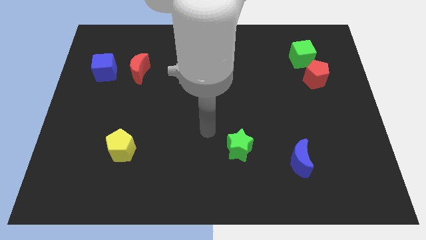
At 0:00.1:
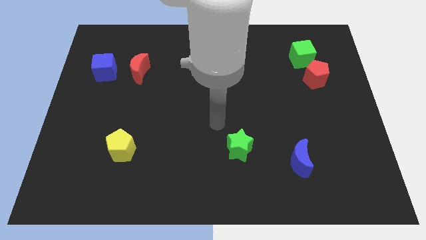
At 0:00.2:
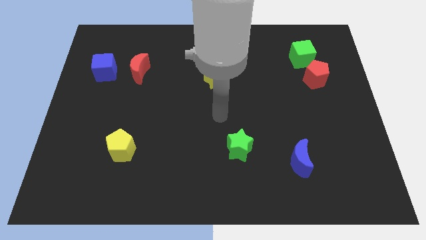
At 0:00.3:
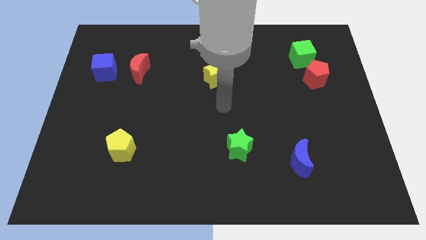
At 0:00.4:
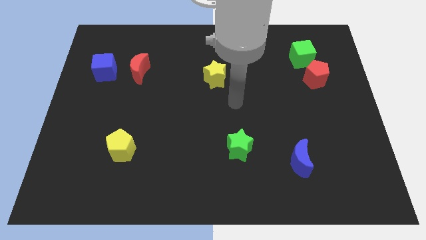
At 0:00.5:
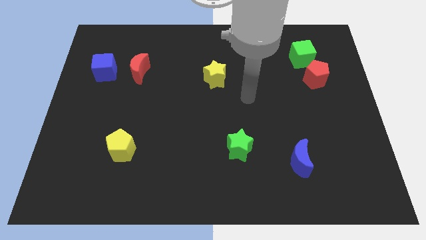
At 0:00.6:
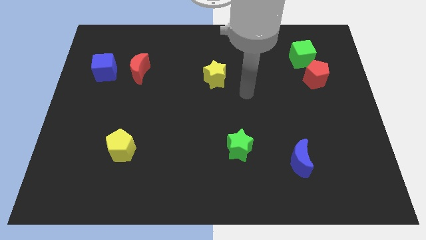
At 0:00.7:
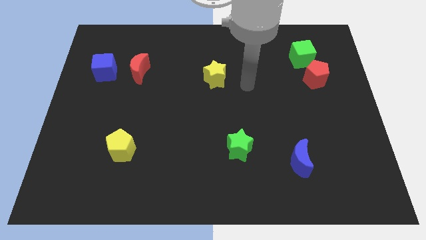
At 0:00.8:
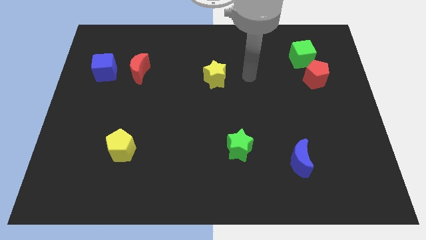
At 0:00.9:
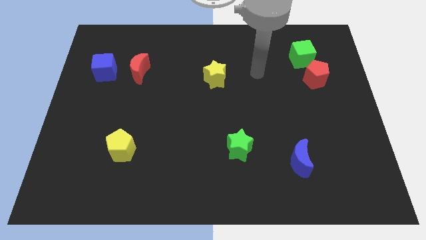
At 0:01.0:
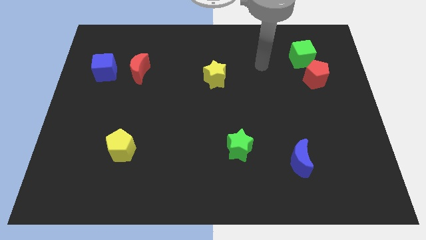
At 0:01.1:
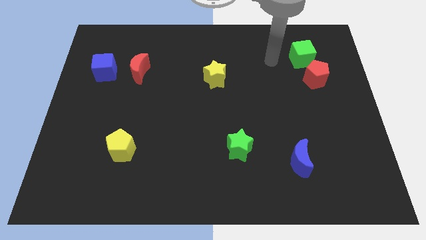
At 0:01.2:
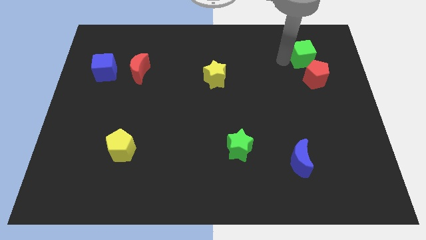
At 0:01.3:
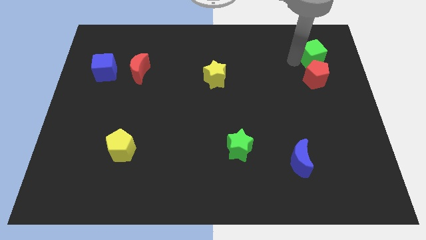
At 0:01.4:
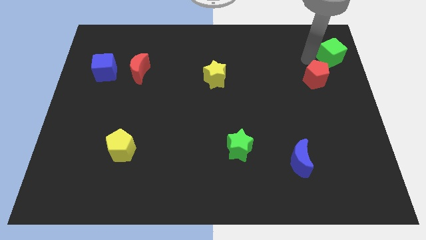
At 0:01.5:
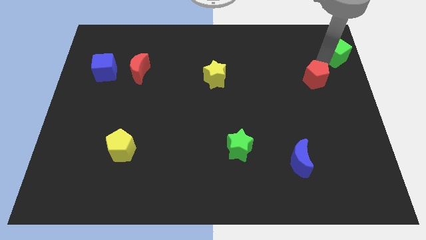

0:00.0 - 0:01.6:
pull the red pentagon apart from the green cube

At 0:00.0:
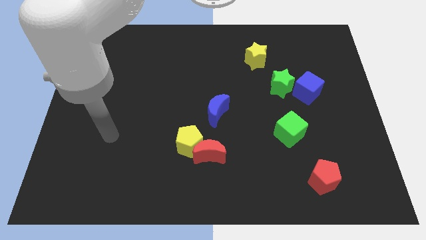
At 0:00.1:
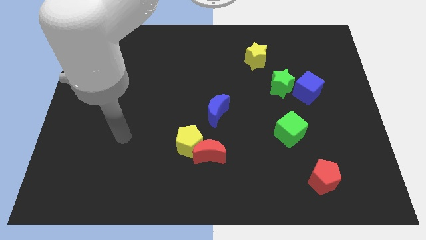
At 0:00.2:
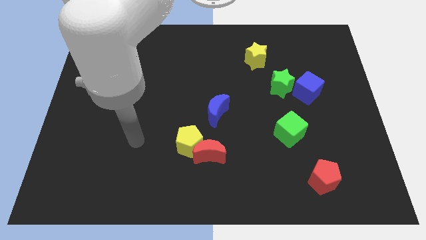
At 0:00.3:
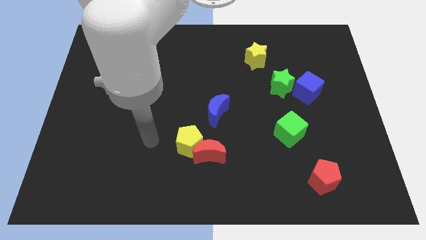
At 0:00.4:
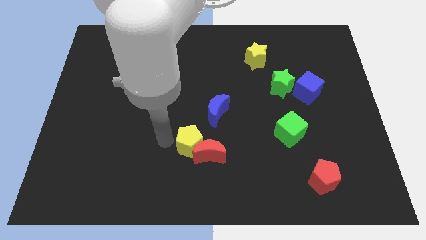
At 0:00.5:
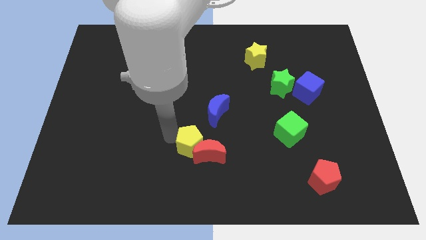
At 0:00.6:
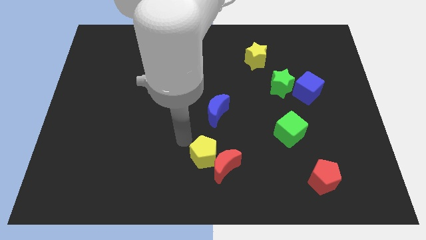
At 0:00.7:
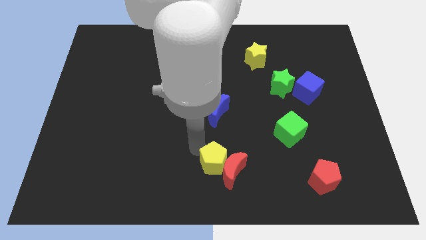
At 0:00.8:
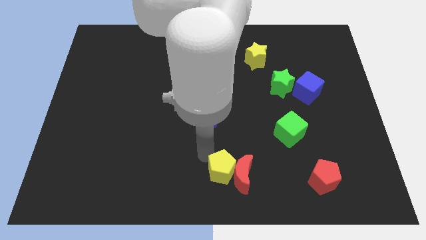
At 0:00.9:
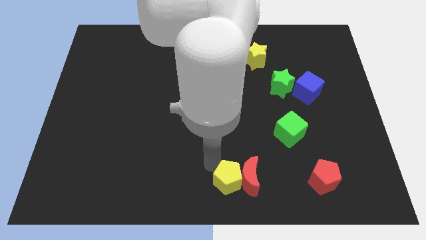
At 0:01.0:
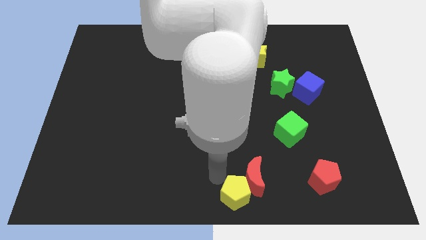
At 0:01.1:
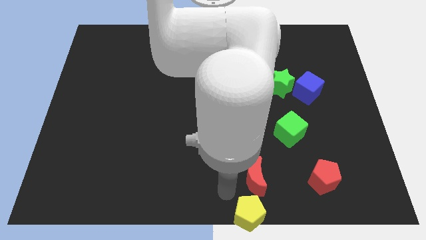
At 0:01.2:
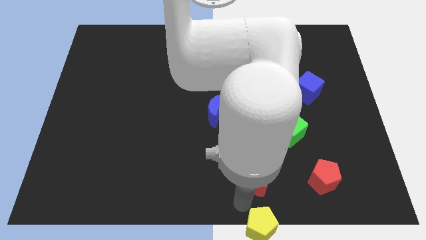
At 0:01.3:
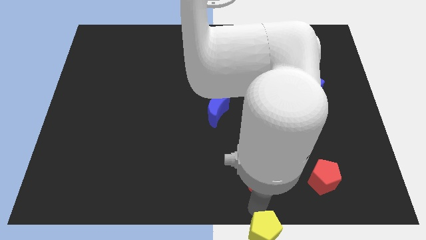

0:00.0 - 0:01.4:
pull the red moon apart from the yellow pentagon

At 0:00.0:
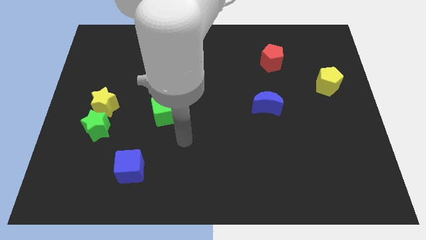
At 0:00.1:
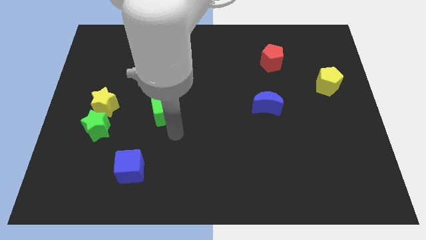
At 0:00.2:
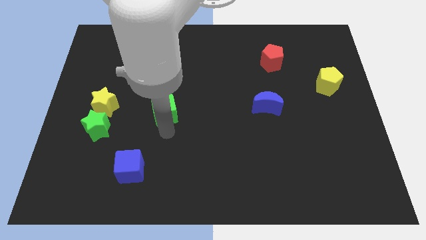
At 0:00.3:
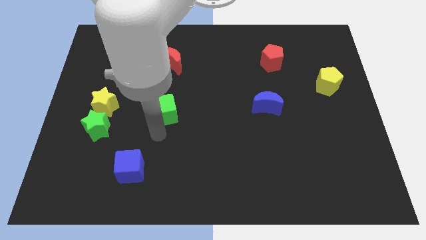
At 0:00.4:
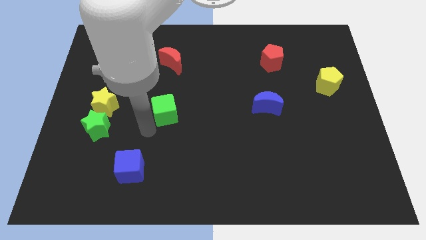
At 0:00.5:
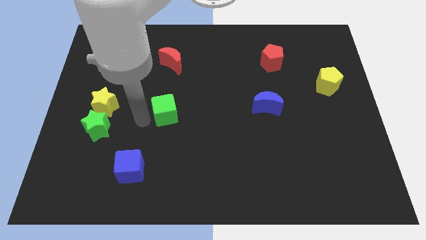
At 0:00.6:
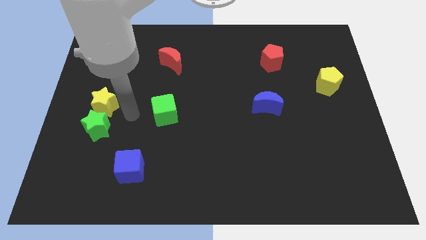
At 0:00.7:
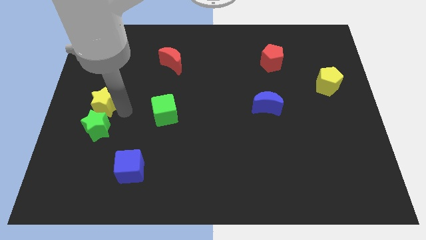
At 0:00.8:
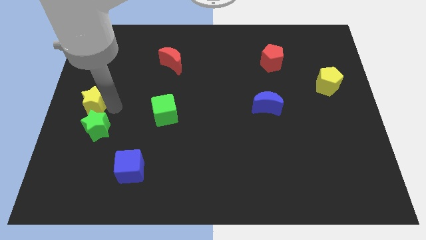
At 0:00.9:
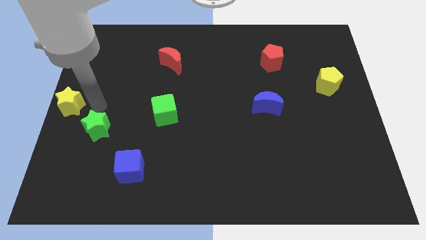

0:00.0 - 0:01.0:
separate the green star from the yellow star

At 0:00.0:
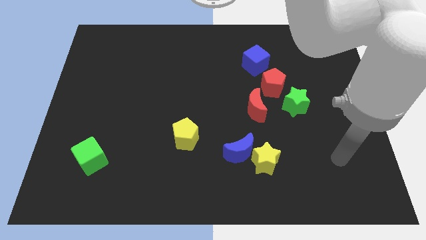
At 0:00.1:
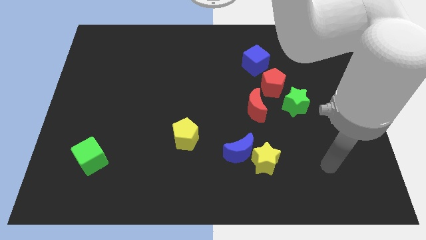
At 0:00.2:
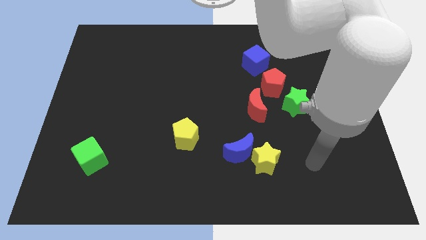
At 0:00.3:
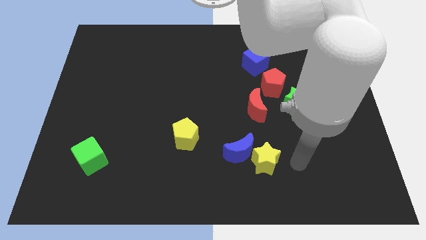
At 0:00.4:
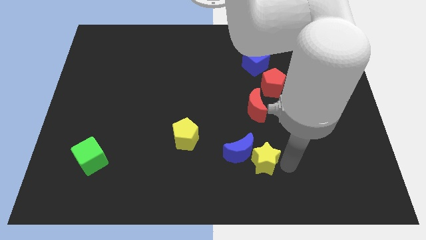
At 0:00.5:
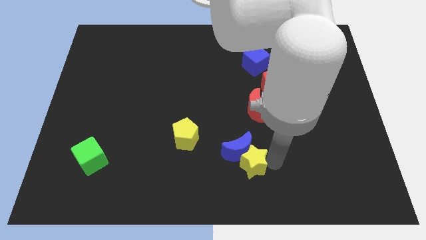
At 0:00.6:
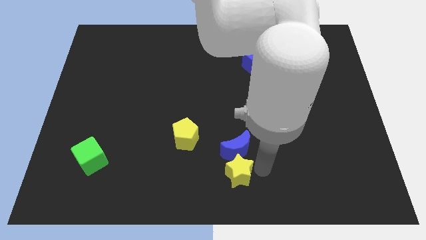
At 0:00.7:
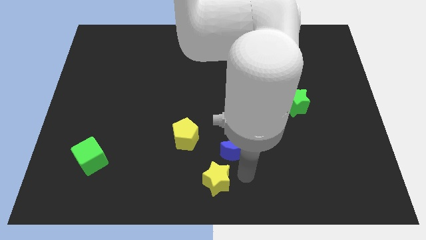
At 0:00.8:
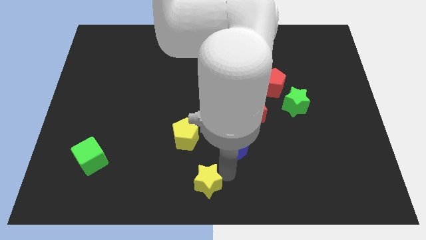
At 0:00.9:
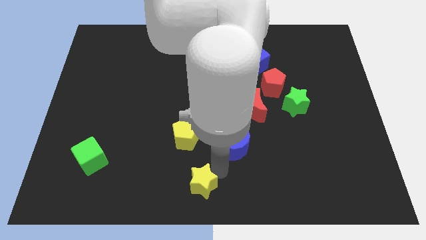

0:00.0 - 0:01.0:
move the blue moon away from the yellow star

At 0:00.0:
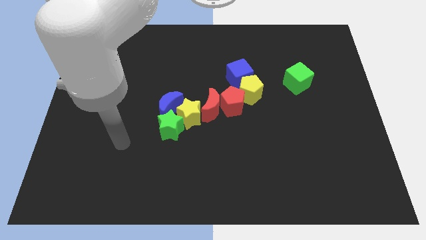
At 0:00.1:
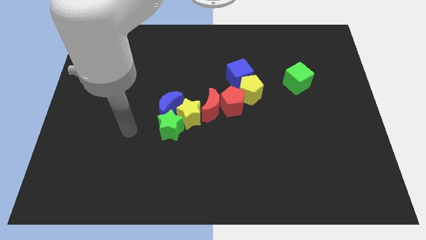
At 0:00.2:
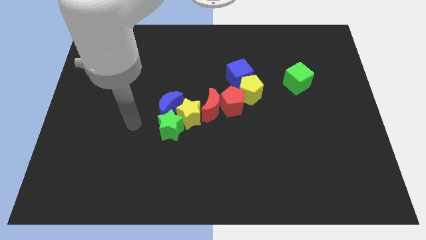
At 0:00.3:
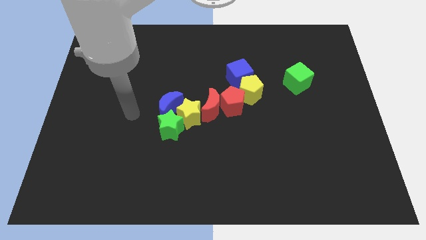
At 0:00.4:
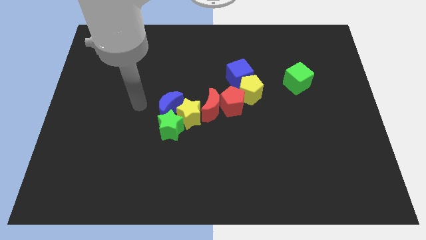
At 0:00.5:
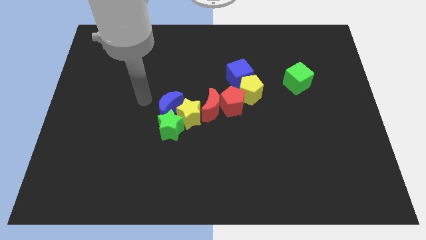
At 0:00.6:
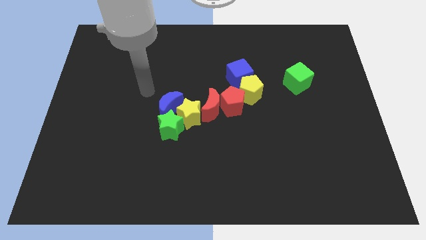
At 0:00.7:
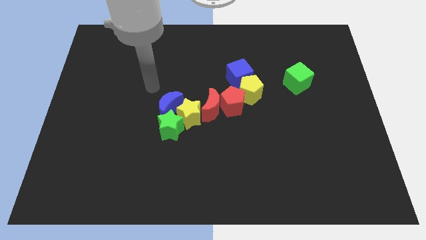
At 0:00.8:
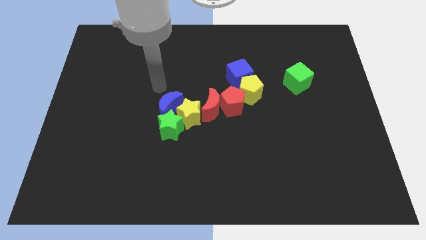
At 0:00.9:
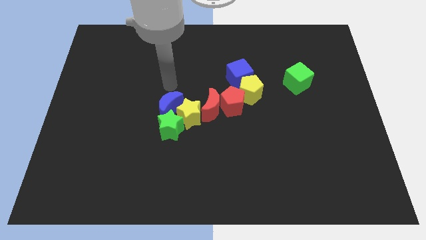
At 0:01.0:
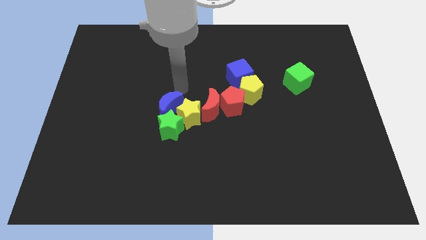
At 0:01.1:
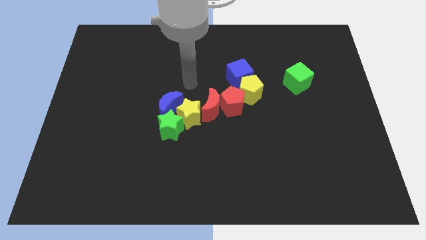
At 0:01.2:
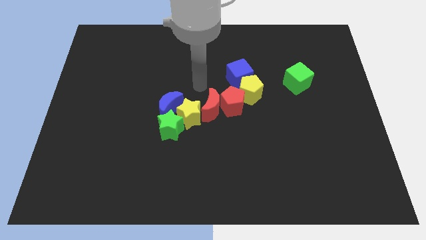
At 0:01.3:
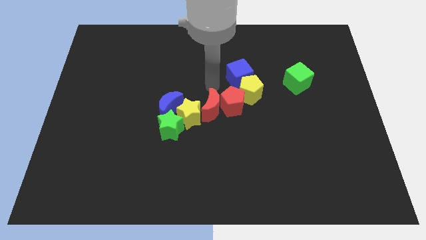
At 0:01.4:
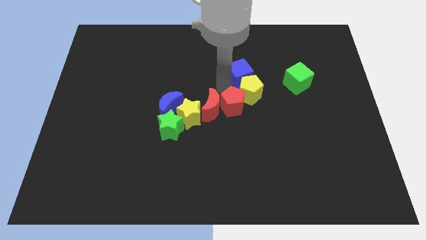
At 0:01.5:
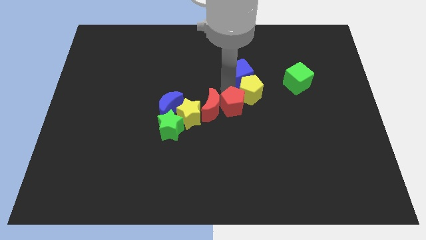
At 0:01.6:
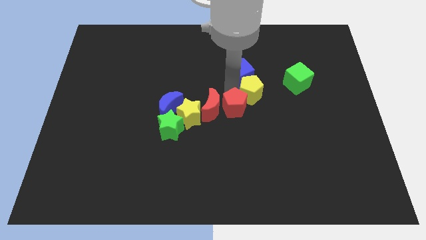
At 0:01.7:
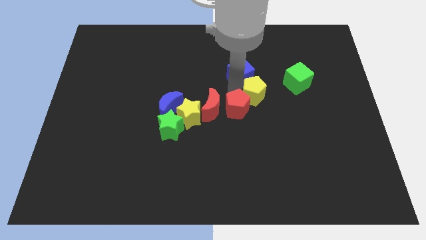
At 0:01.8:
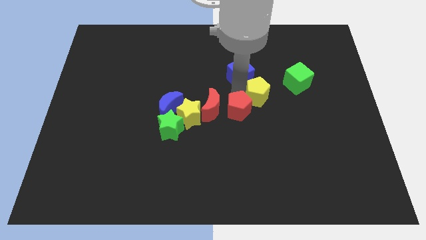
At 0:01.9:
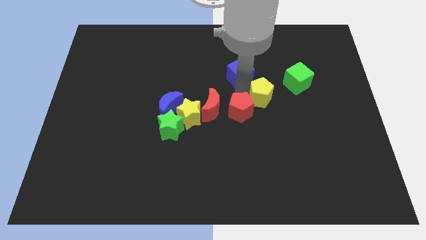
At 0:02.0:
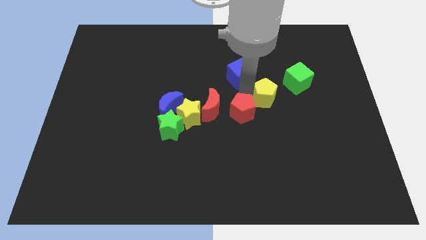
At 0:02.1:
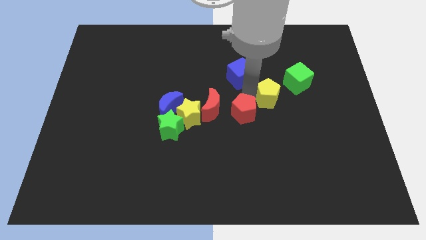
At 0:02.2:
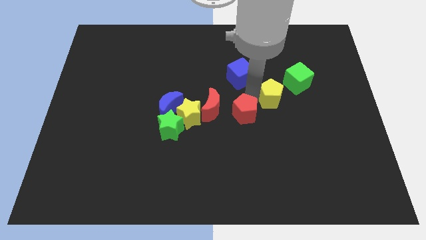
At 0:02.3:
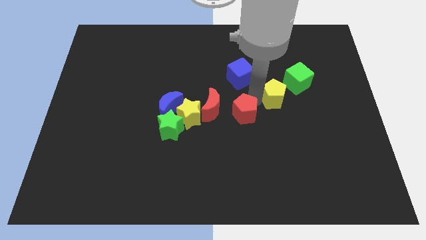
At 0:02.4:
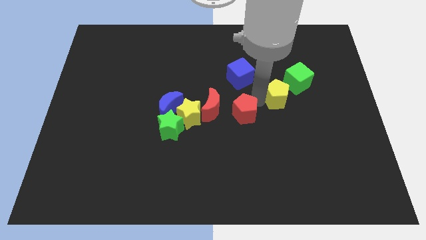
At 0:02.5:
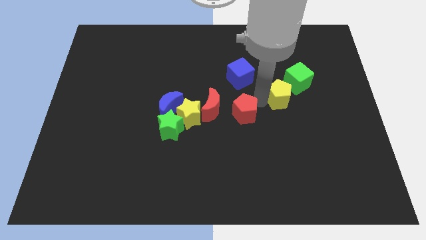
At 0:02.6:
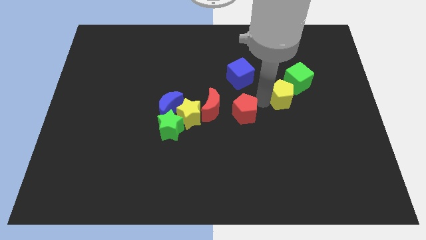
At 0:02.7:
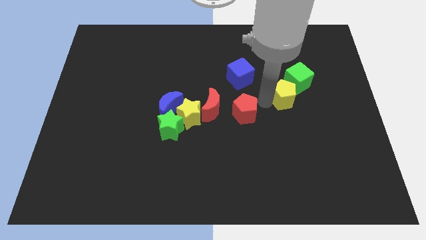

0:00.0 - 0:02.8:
move the yellow pentagon away from the red pentagon and blue cube

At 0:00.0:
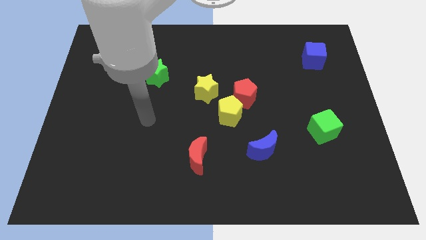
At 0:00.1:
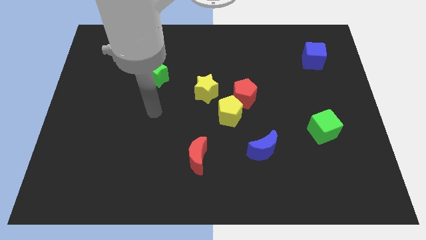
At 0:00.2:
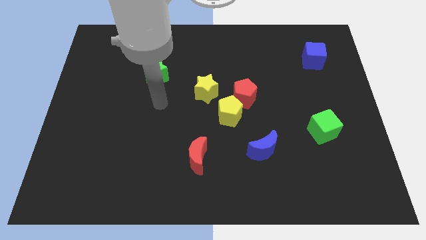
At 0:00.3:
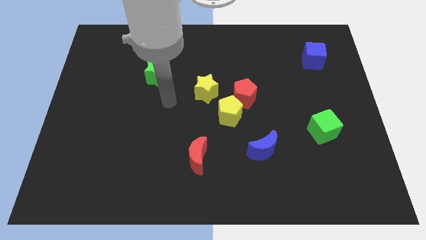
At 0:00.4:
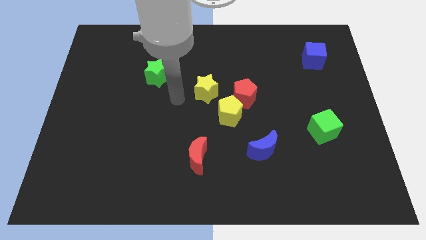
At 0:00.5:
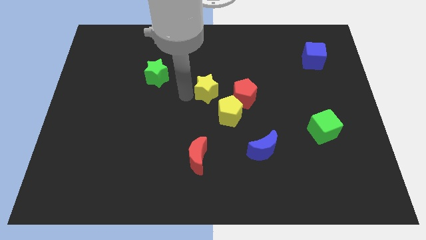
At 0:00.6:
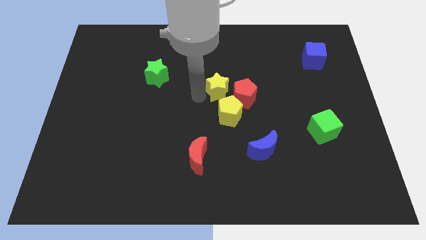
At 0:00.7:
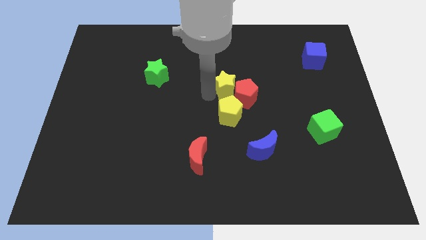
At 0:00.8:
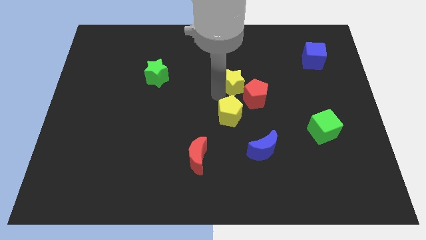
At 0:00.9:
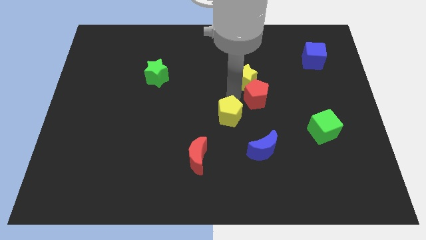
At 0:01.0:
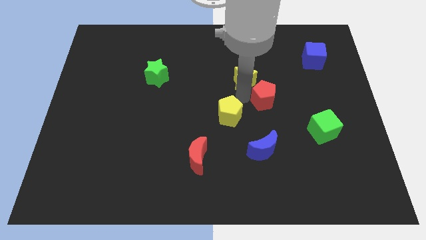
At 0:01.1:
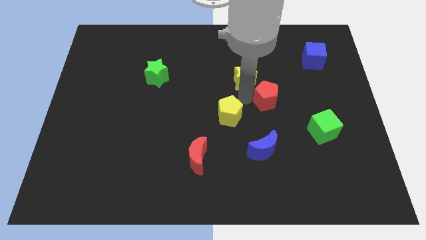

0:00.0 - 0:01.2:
pull the yellow pentagon apart from the red pentagon and yellow star

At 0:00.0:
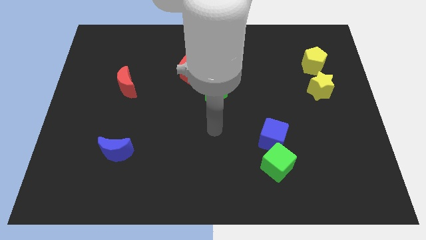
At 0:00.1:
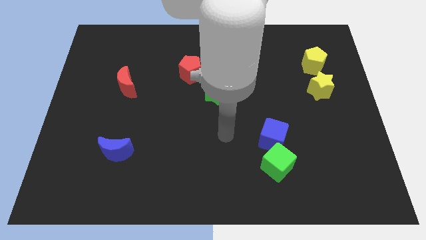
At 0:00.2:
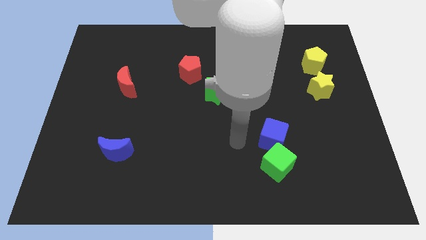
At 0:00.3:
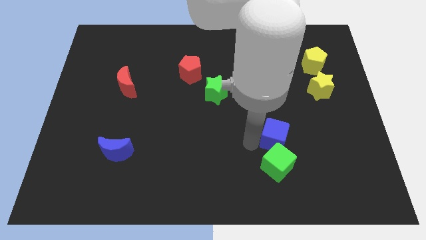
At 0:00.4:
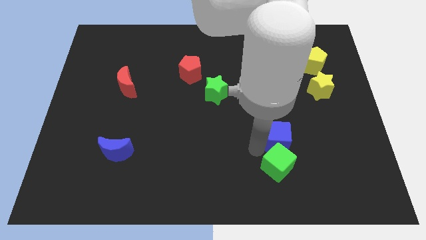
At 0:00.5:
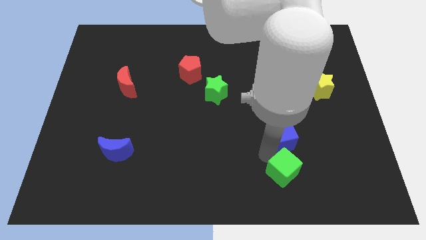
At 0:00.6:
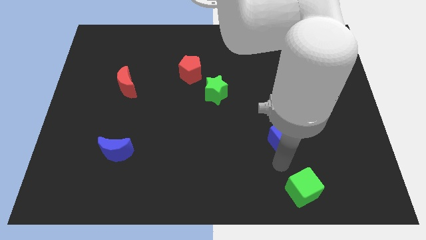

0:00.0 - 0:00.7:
move the blue cube away from the green cube
